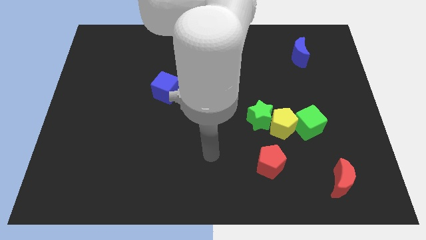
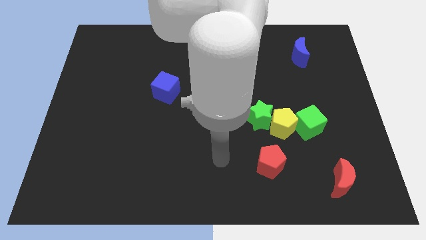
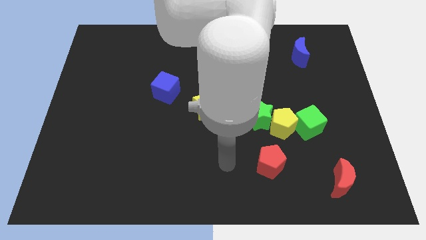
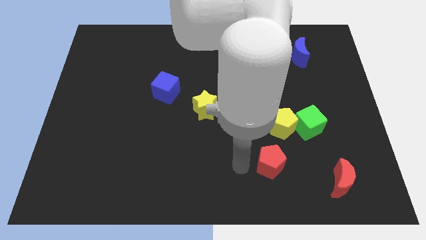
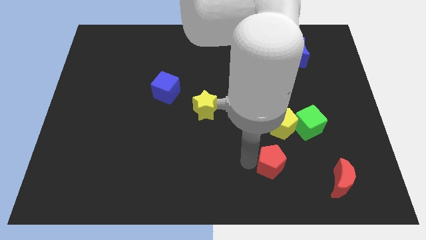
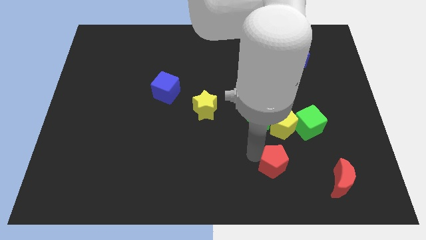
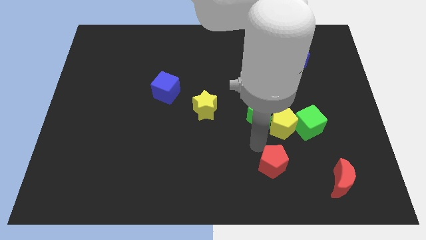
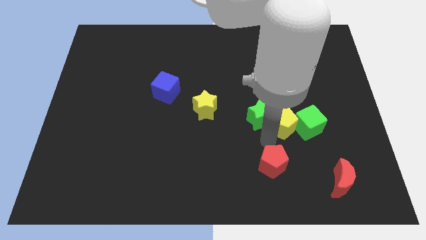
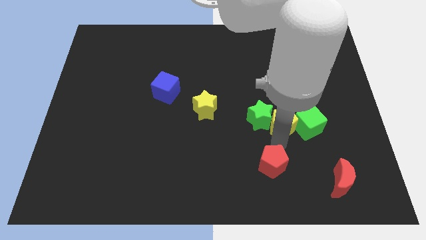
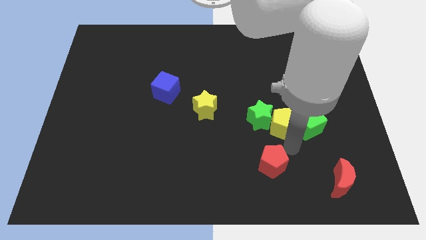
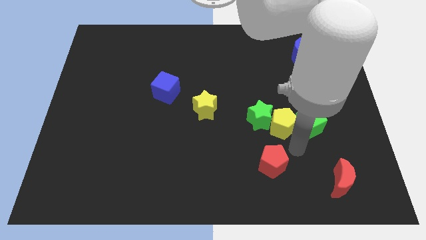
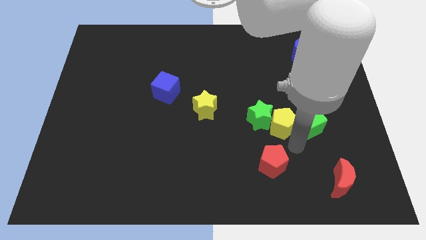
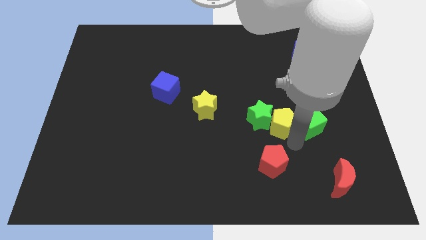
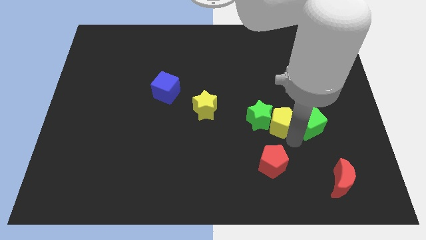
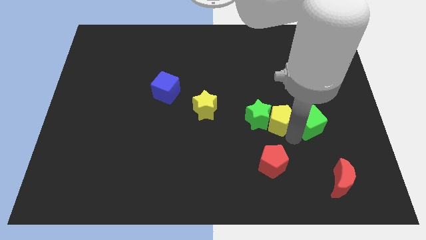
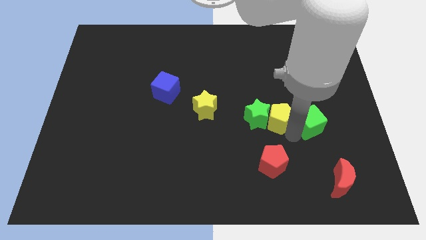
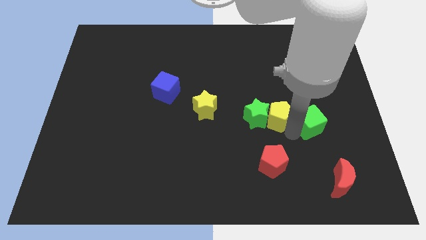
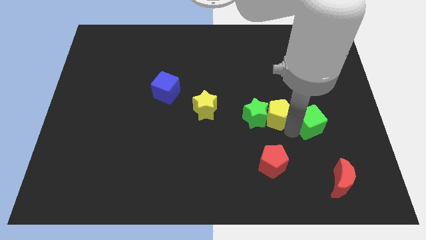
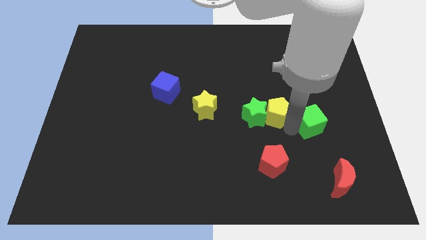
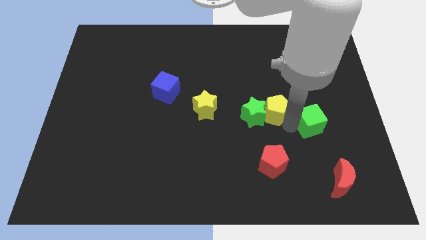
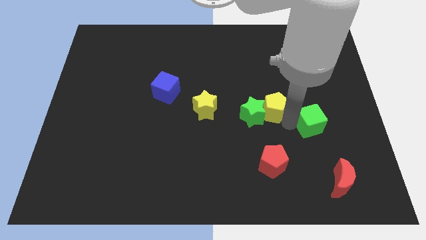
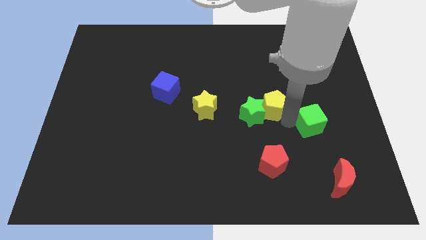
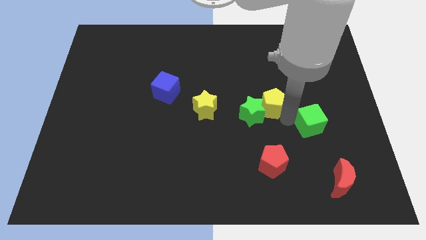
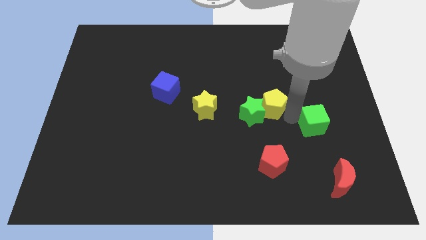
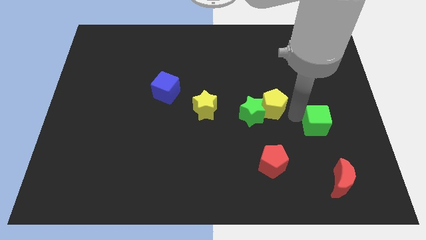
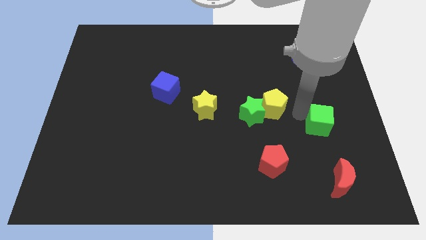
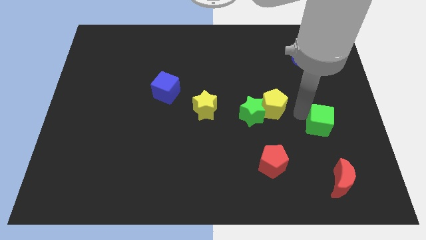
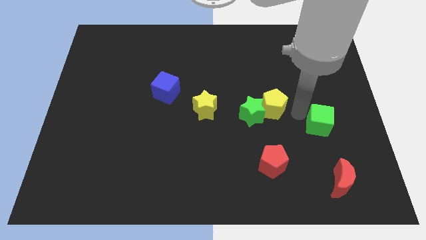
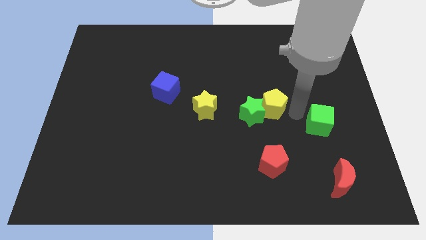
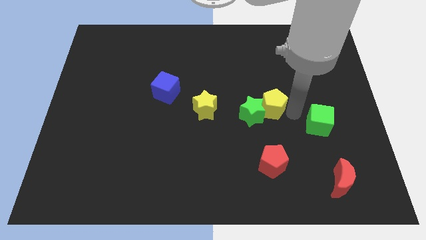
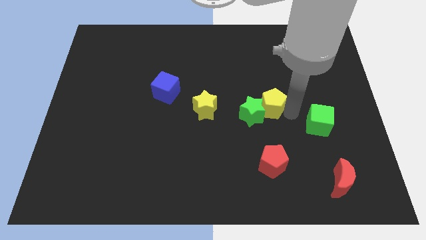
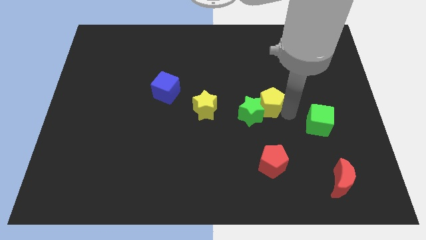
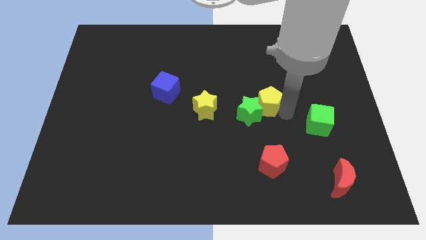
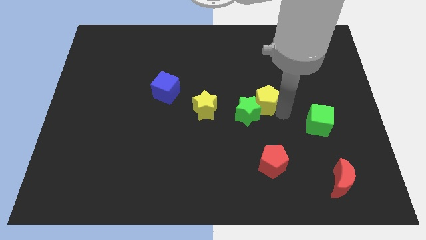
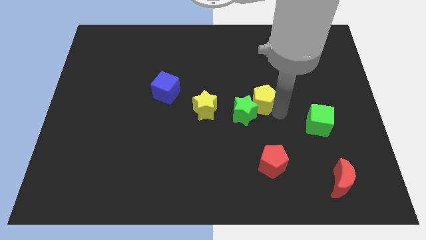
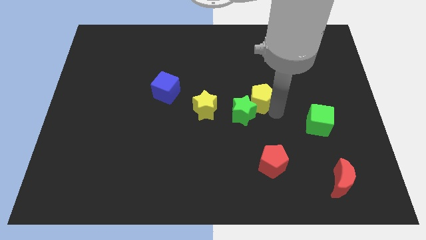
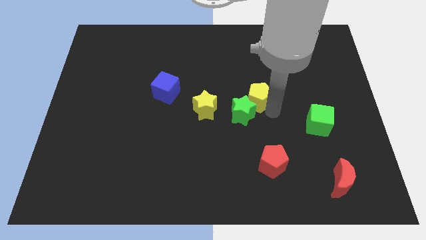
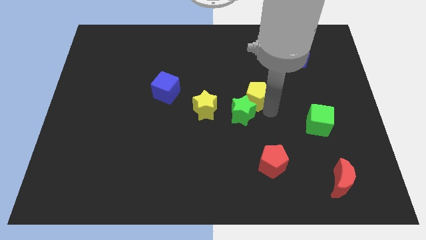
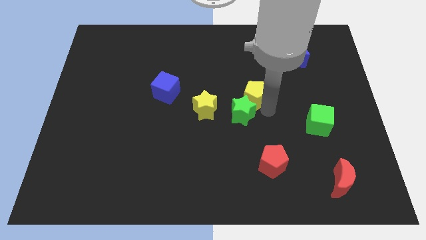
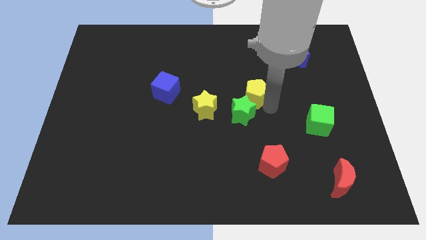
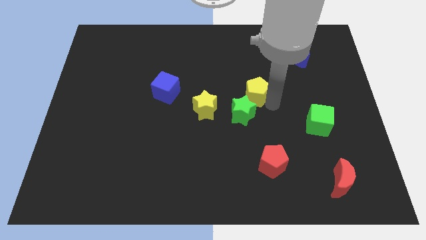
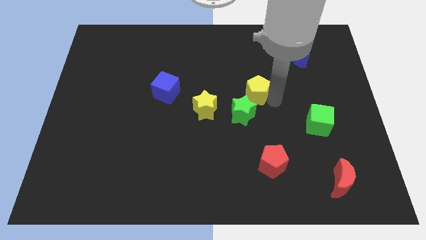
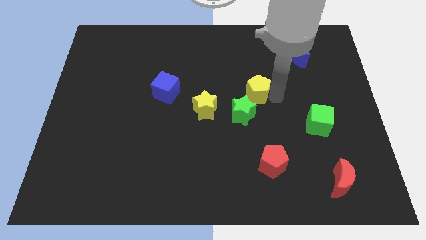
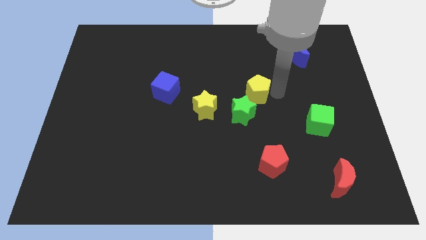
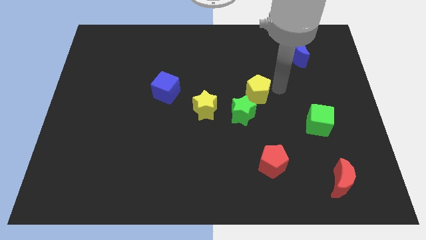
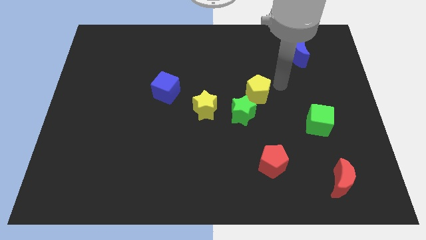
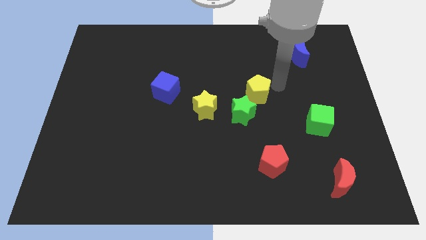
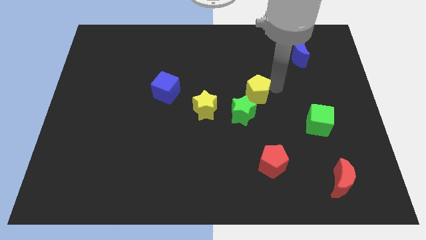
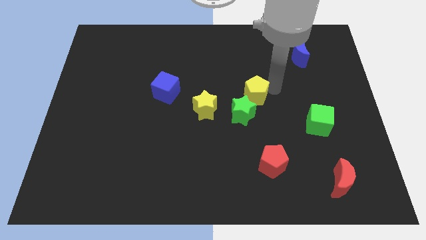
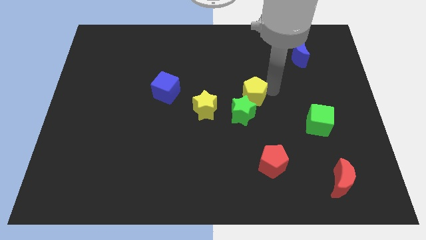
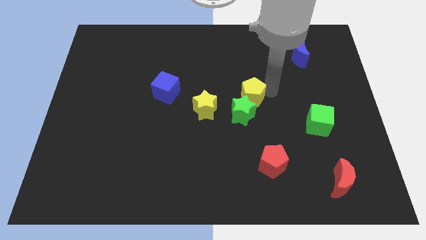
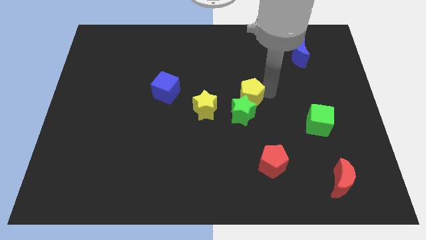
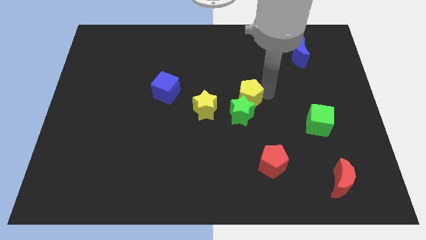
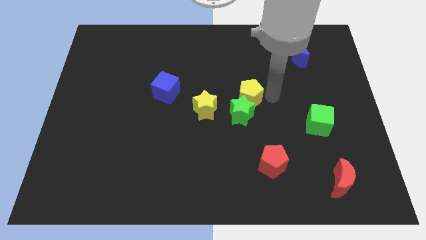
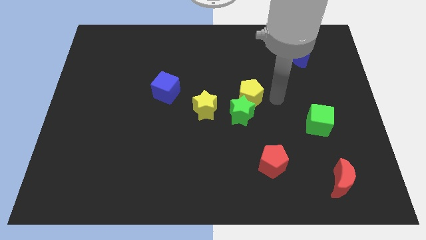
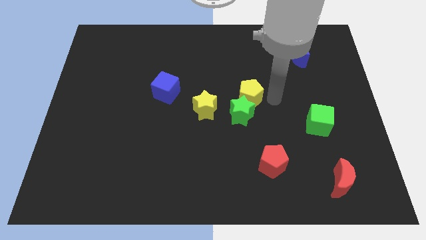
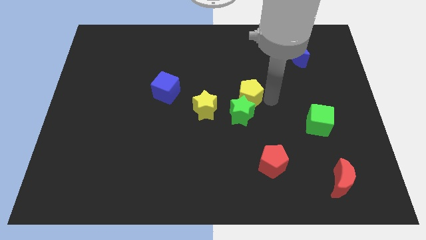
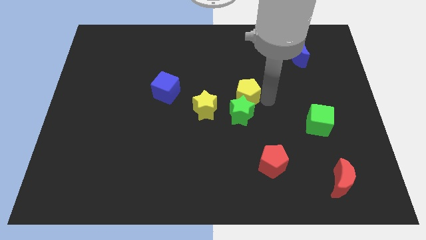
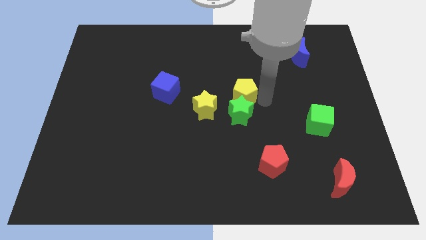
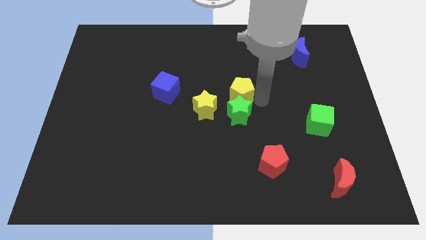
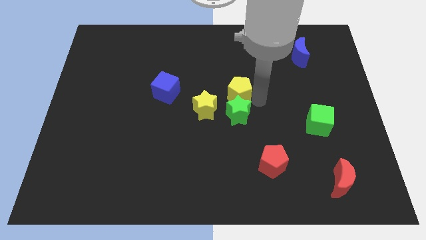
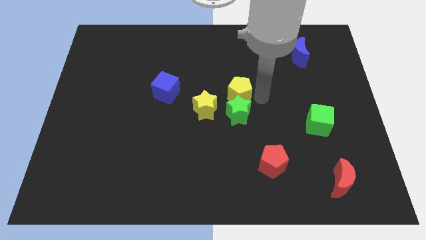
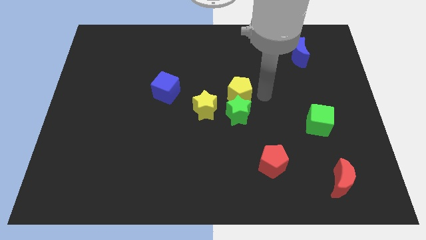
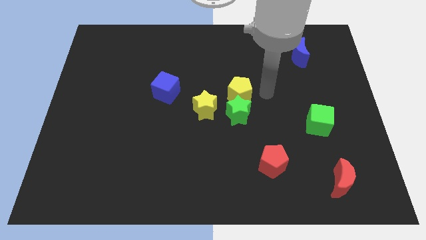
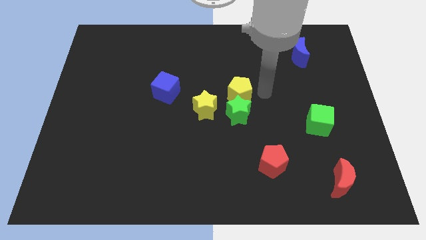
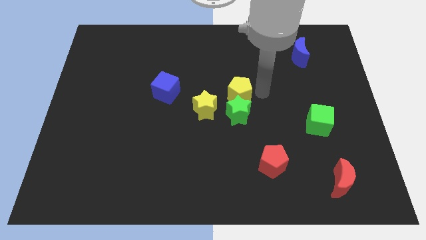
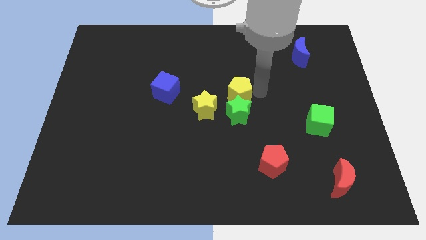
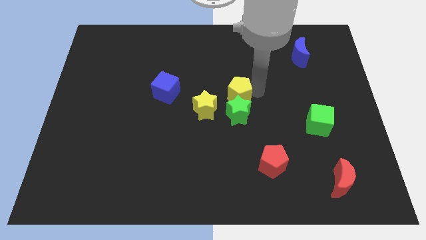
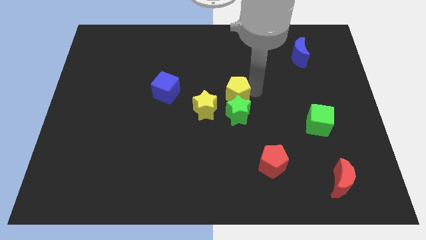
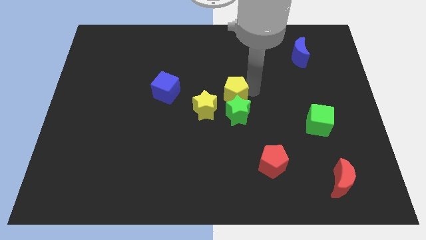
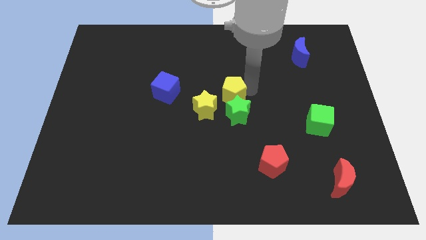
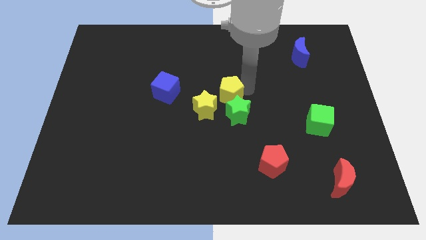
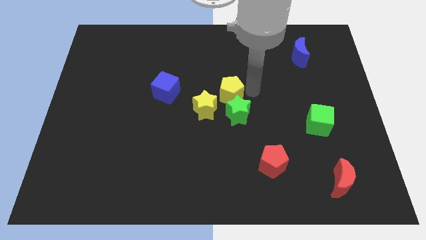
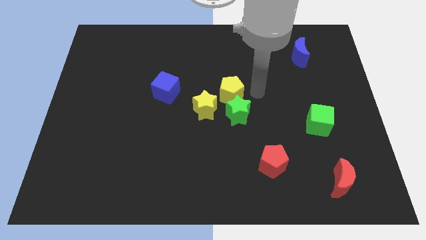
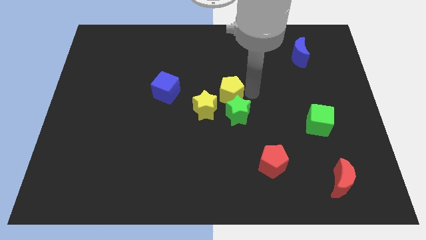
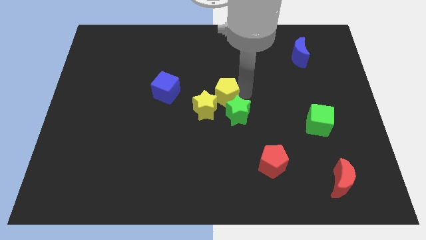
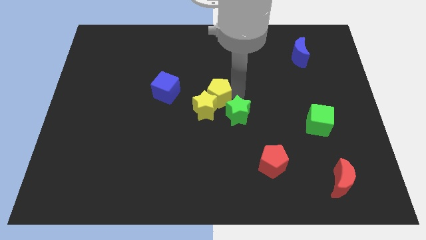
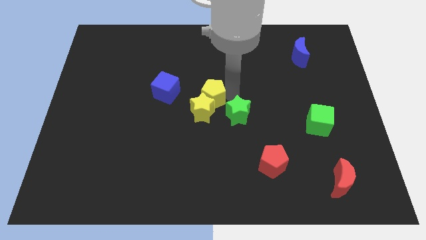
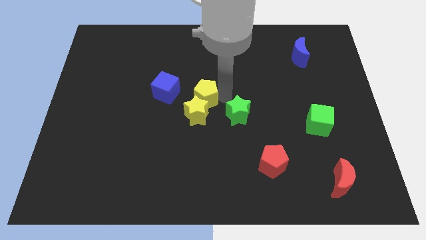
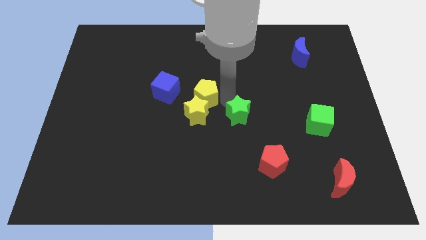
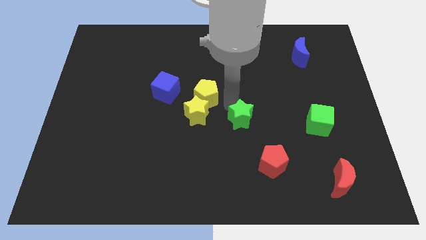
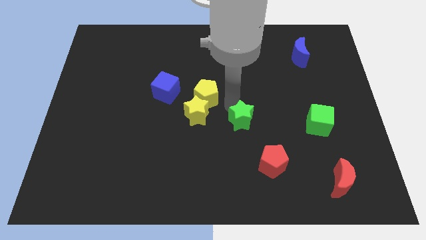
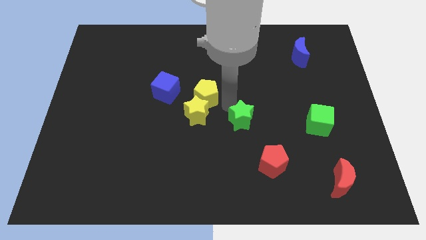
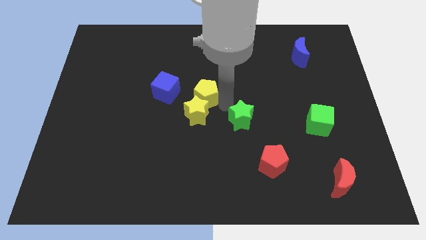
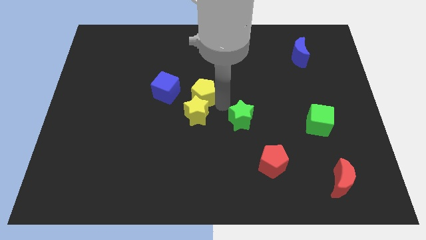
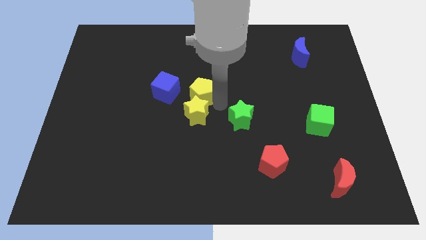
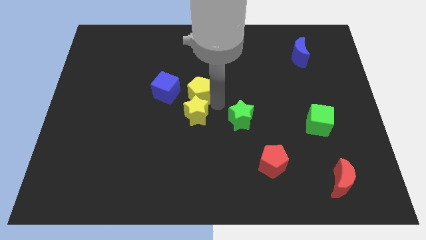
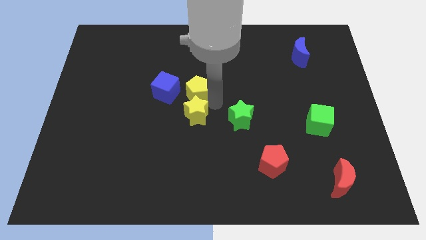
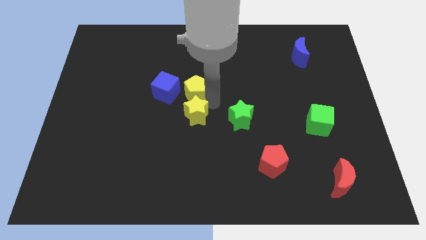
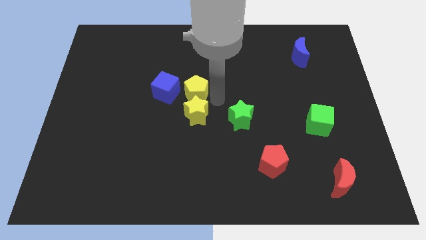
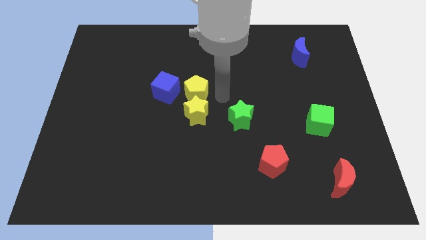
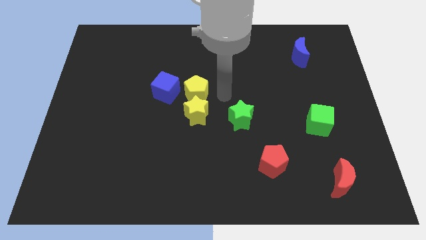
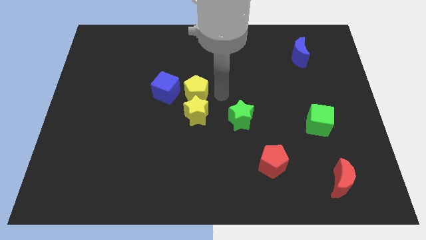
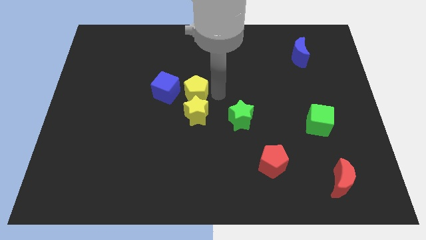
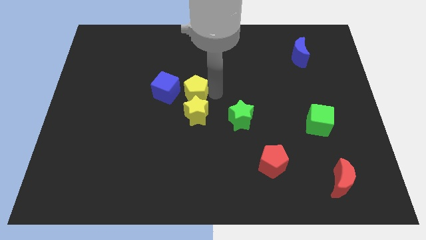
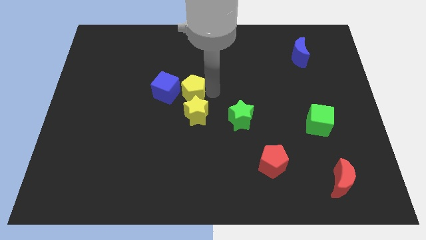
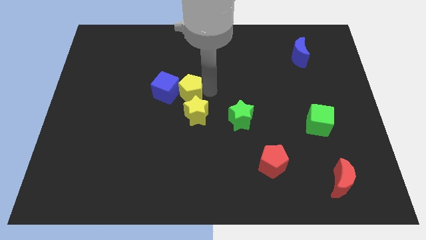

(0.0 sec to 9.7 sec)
put the yellow pentagon next to the blue cube
